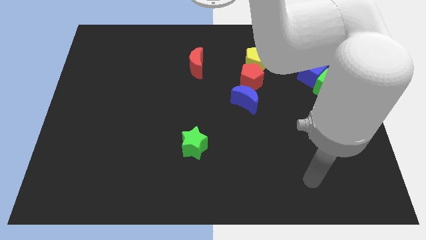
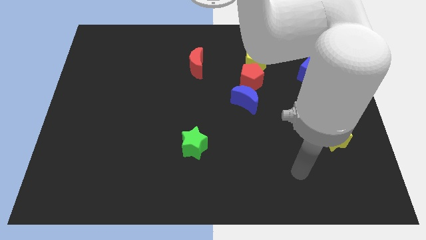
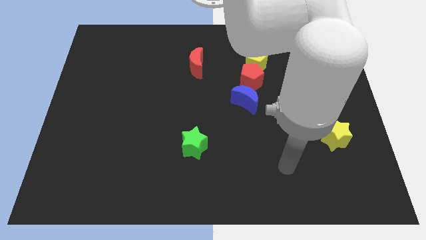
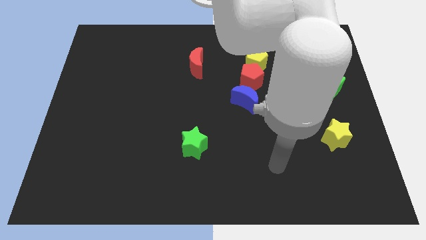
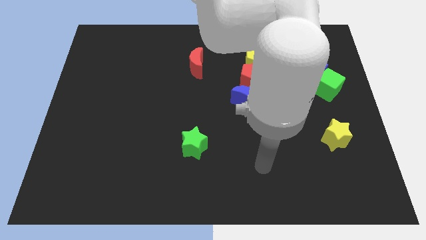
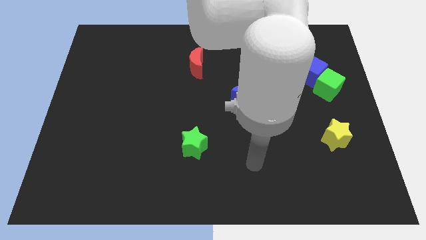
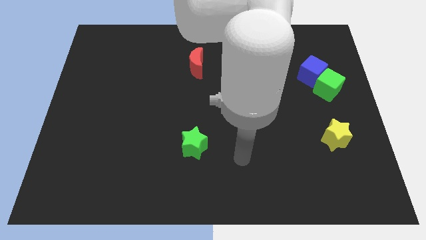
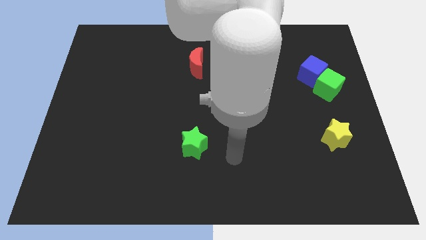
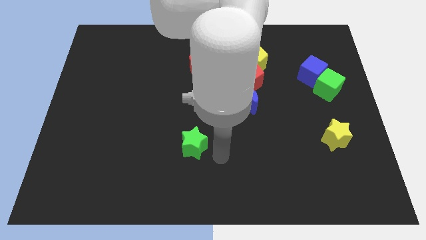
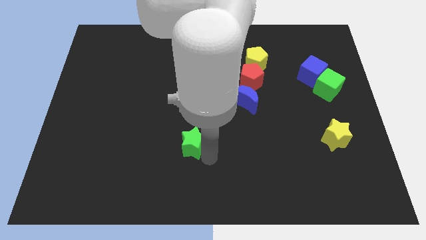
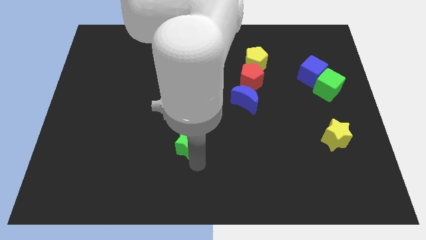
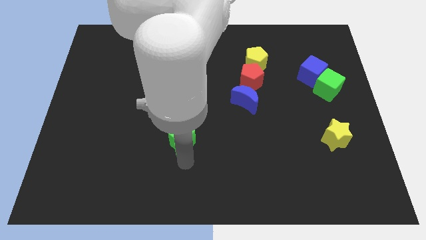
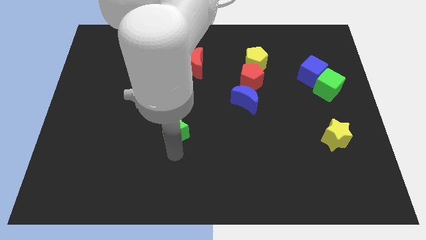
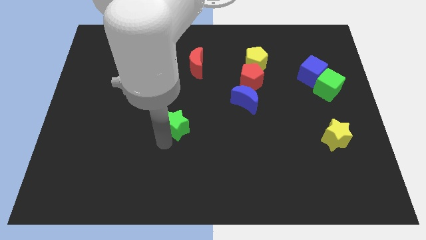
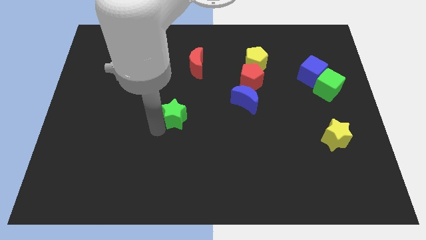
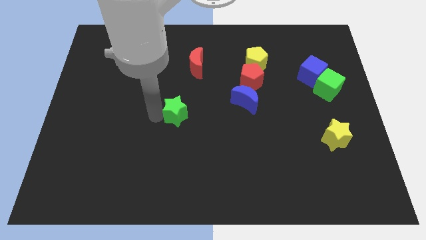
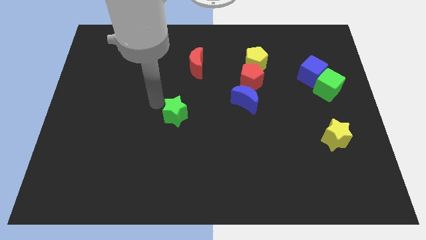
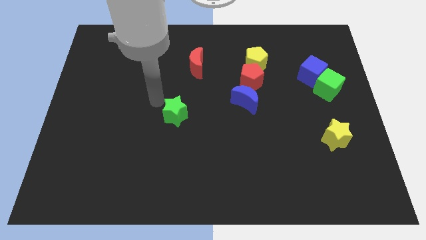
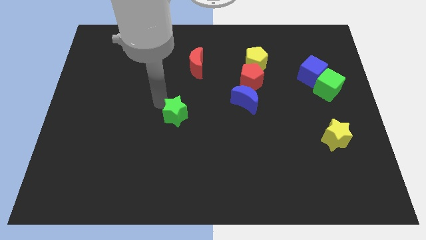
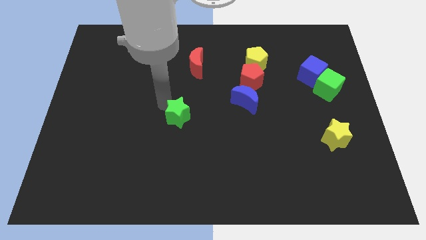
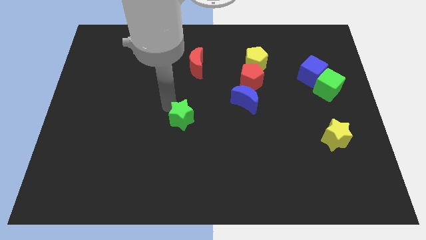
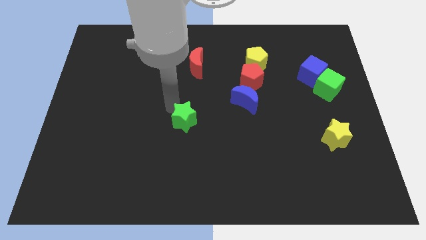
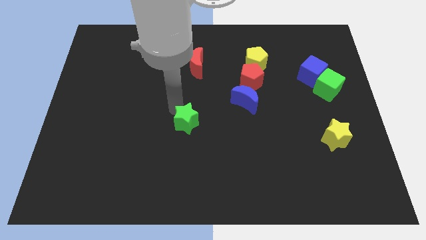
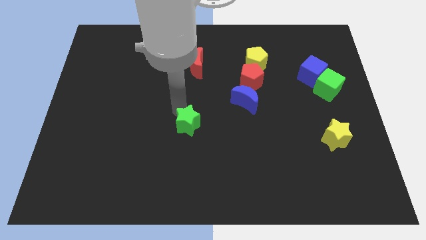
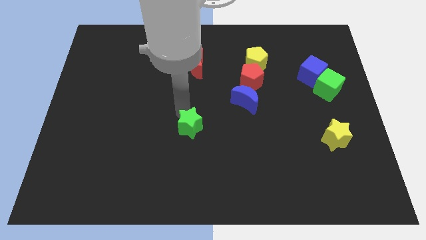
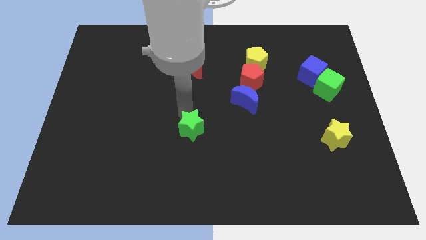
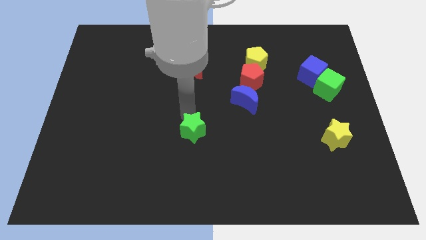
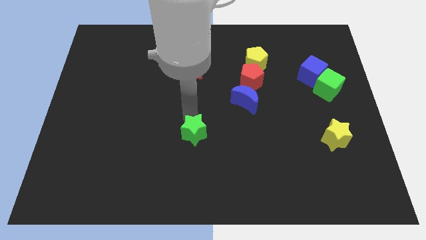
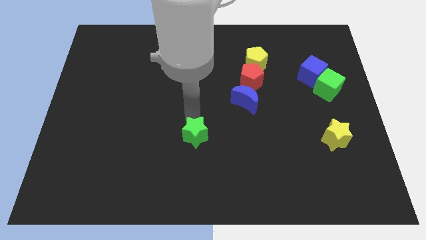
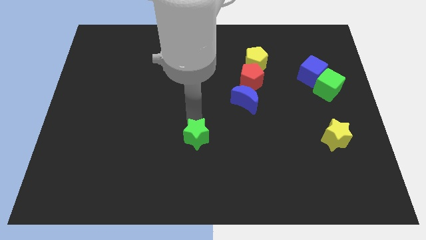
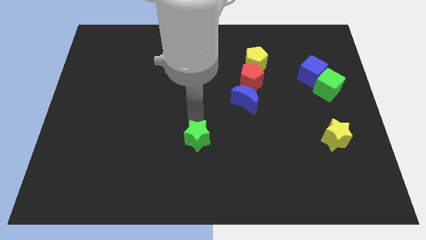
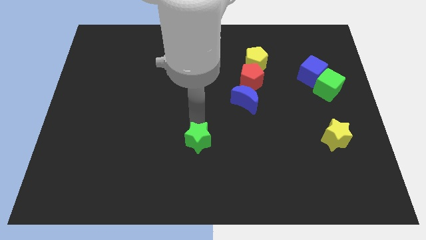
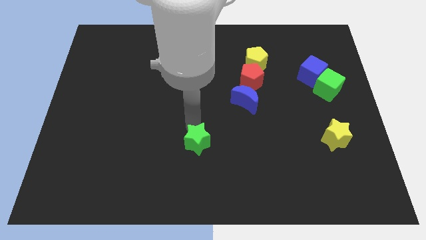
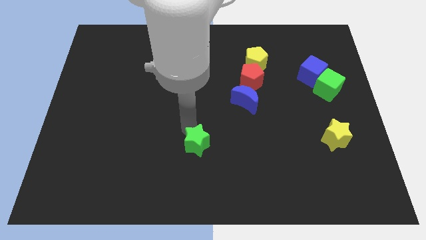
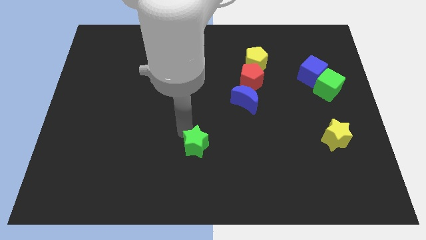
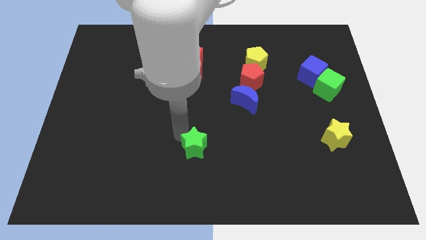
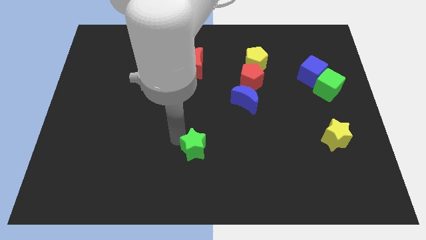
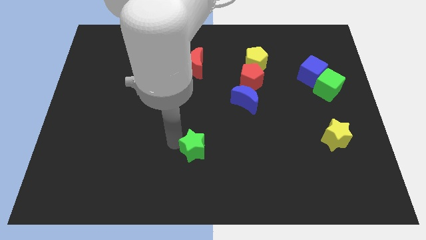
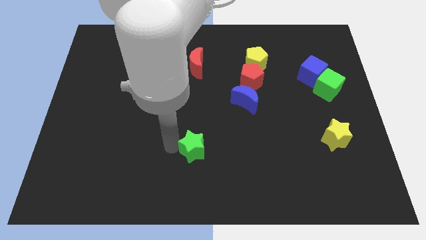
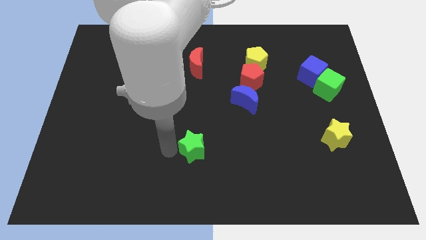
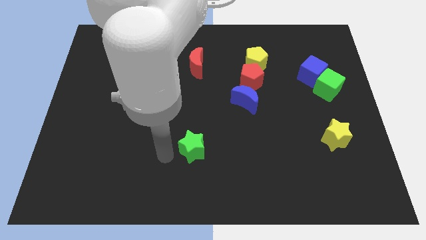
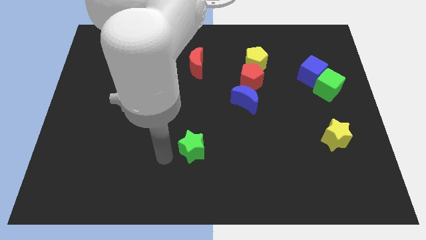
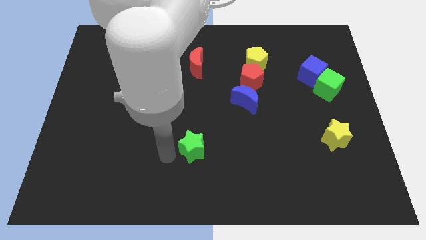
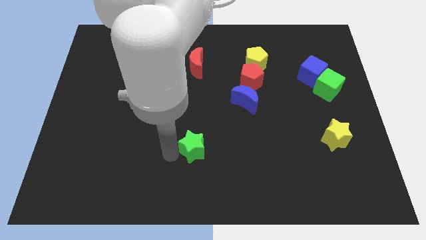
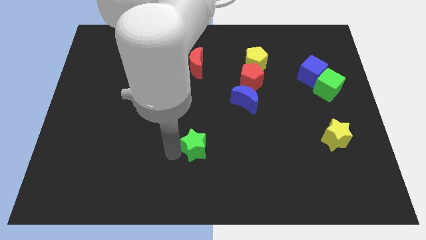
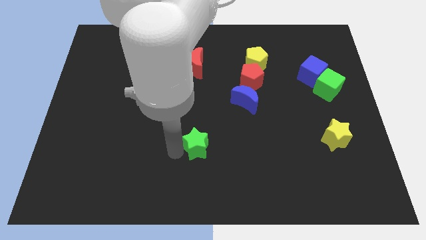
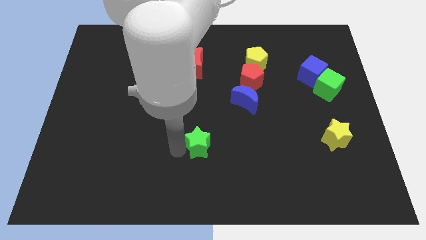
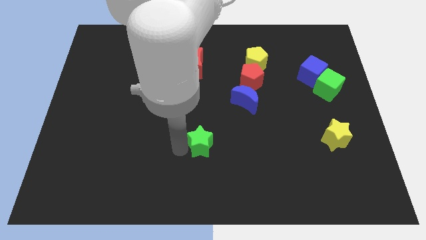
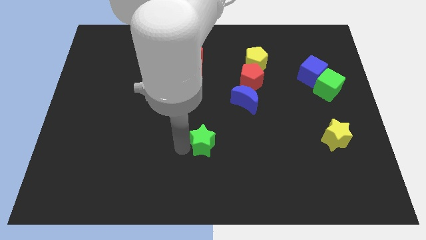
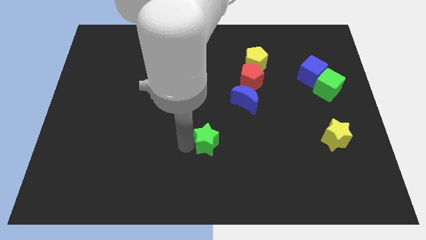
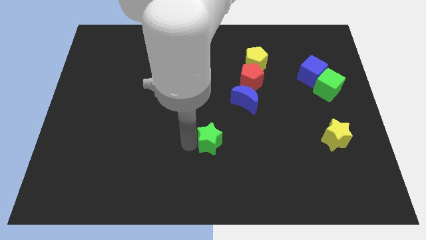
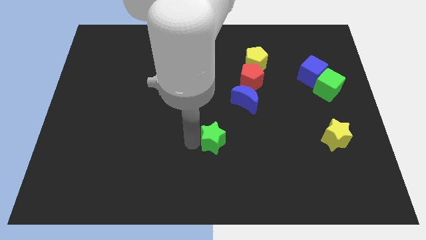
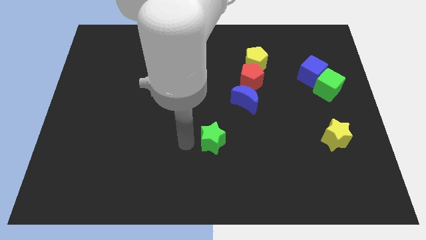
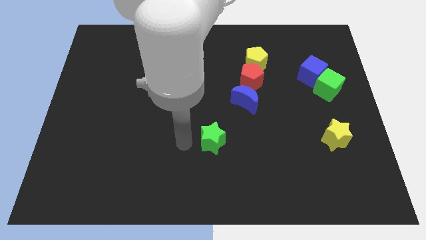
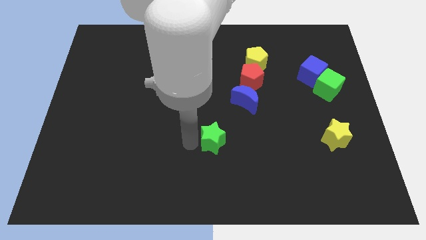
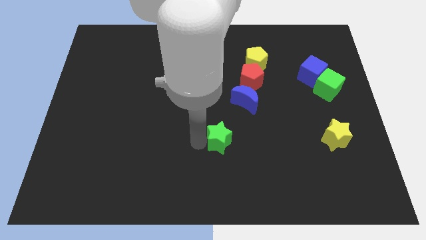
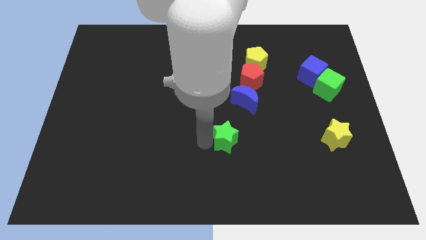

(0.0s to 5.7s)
slightly slide the green star right

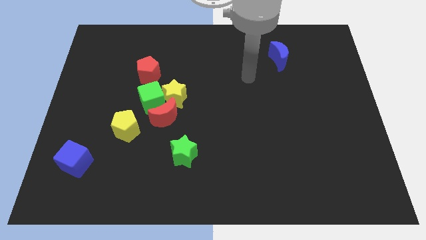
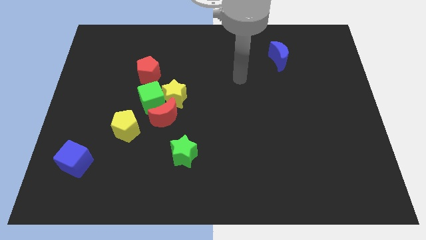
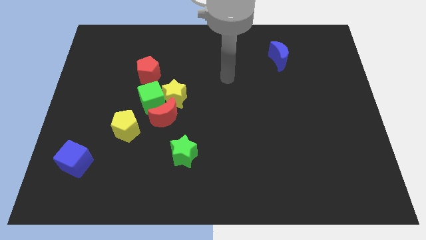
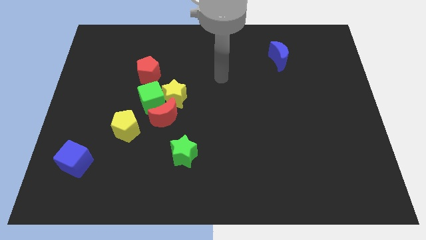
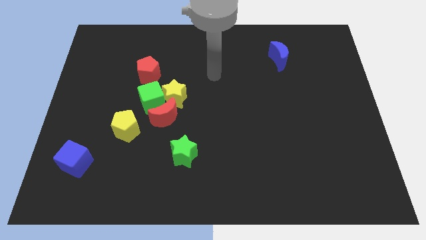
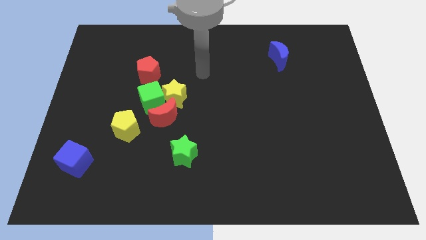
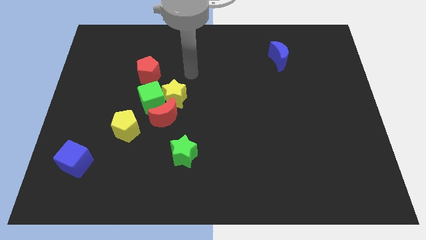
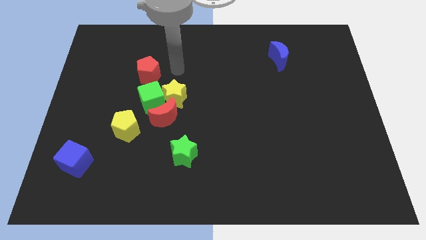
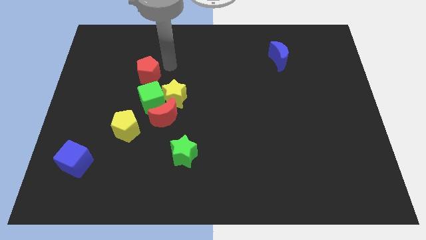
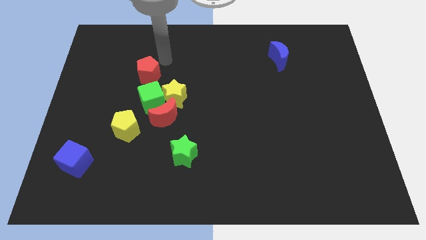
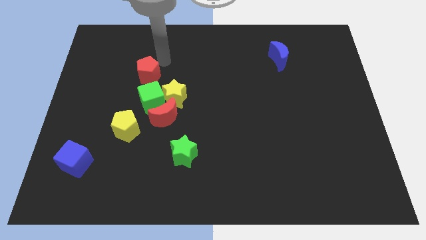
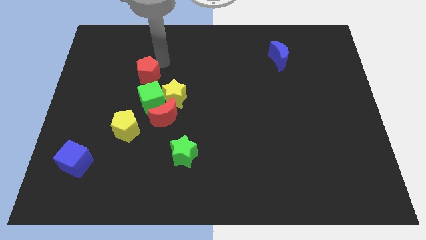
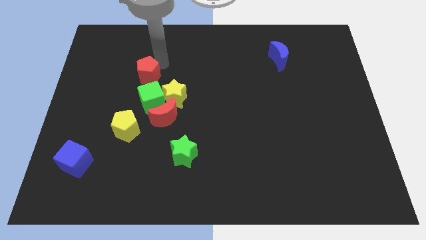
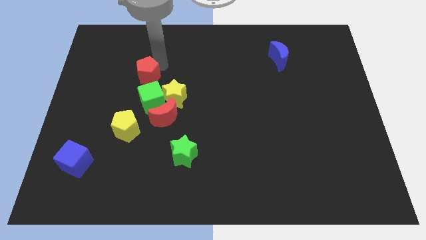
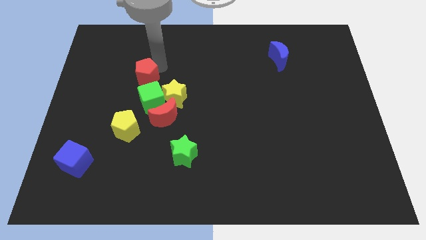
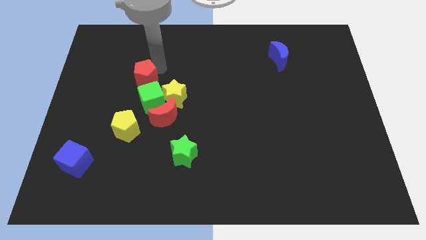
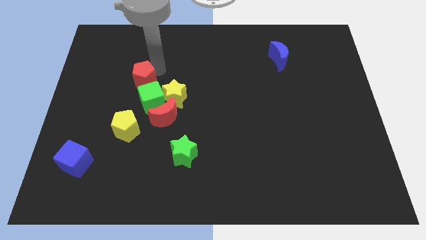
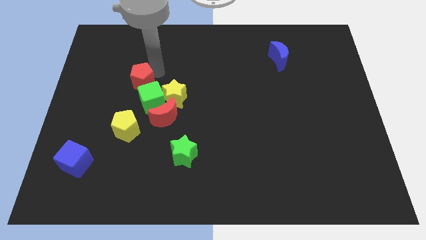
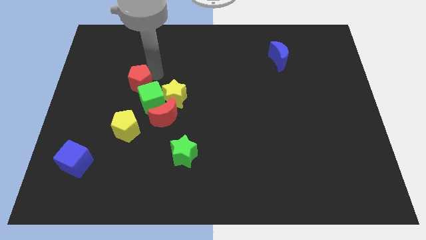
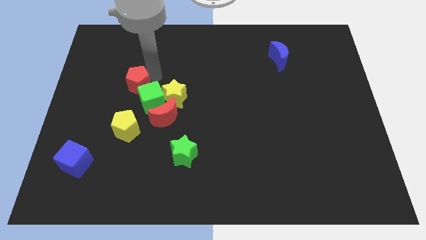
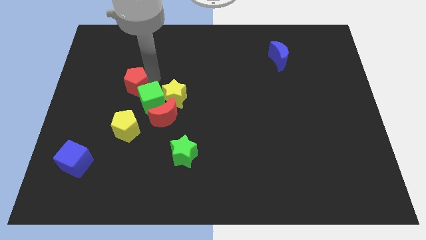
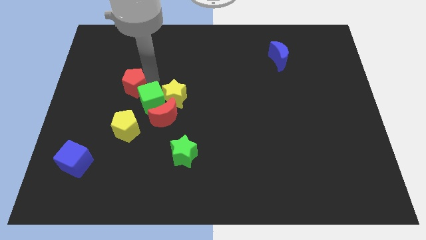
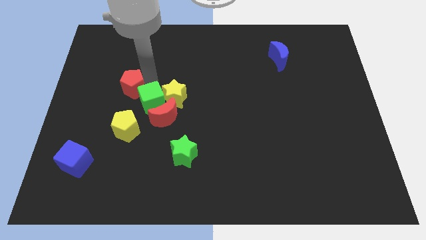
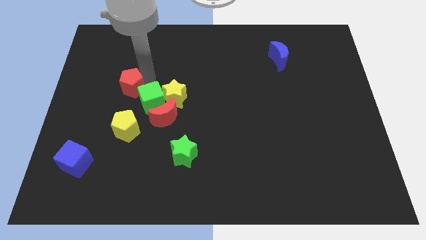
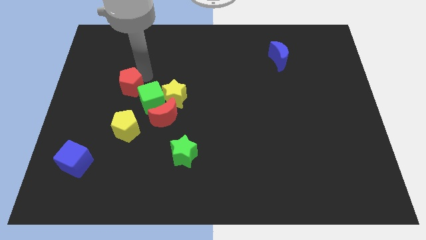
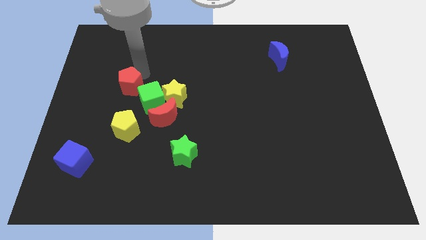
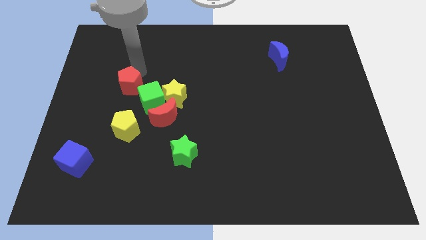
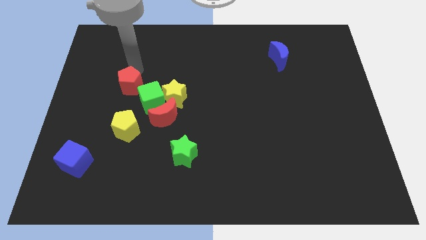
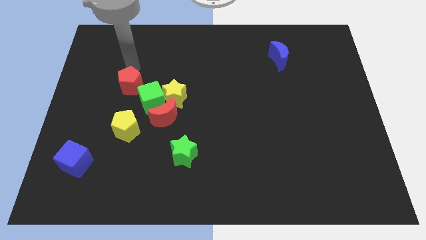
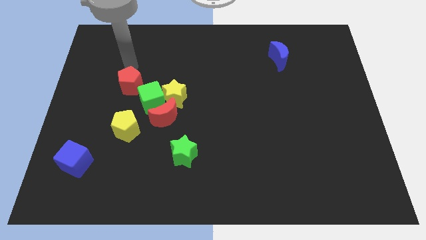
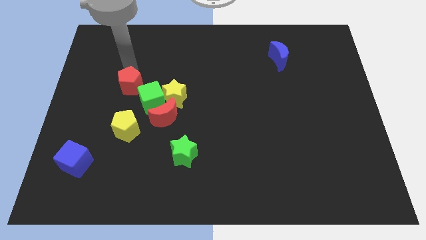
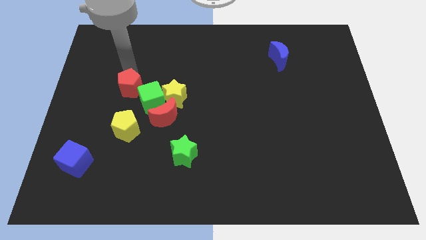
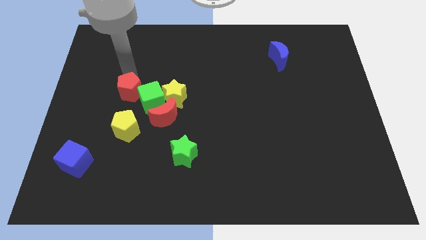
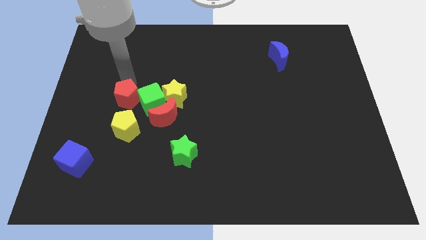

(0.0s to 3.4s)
move the red pentagon a little down
